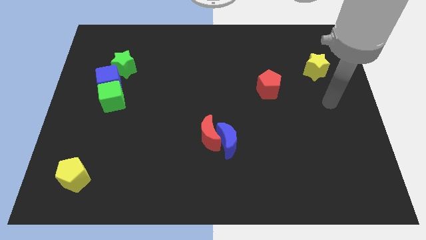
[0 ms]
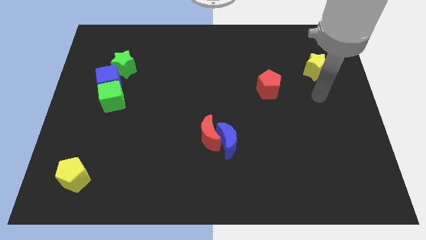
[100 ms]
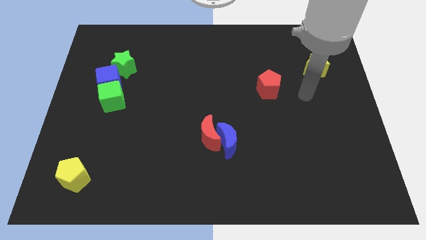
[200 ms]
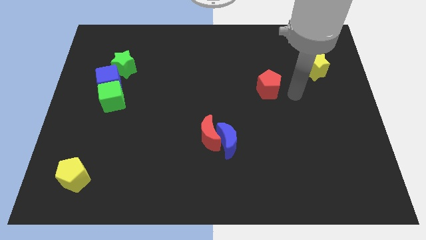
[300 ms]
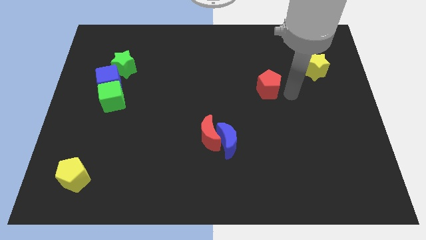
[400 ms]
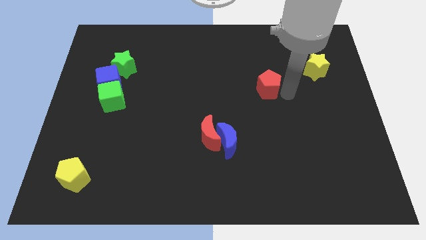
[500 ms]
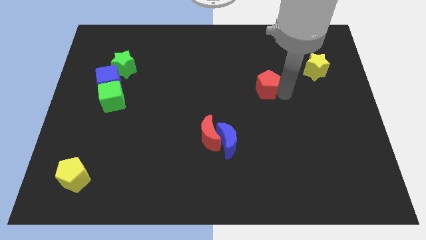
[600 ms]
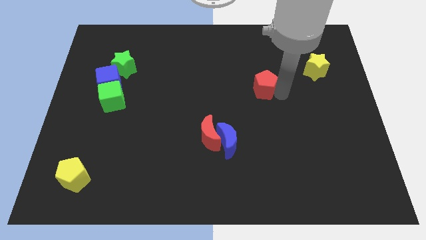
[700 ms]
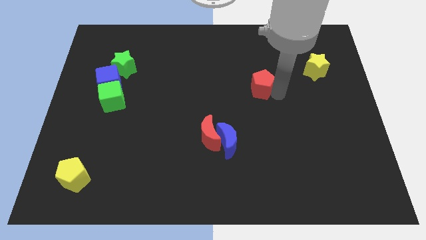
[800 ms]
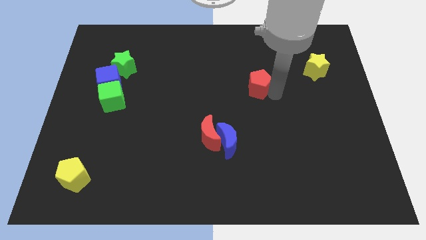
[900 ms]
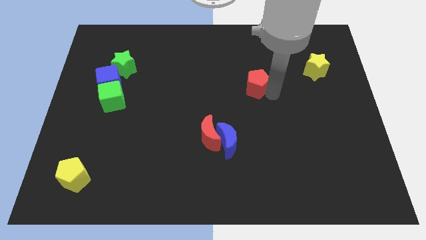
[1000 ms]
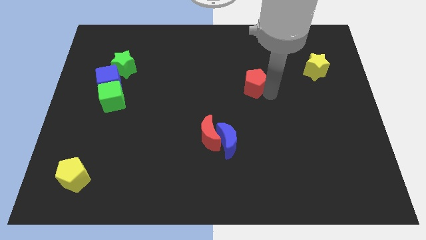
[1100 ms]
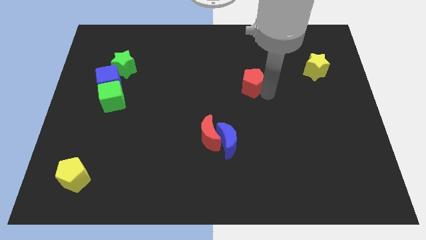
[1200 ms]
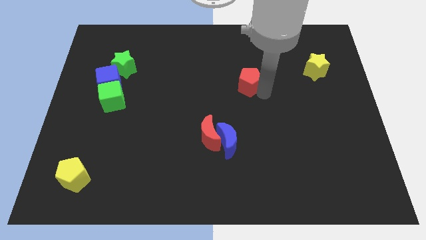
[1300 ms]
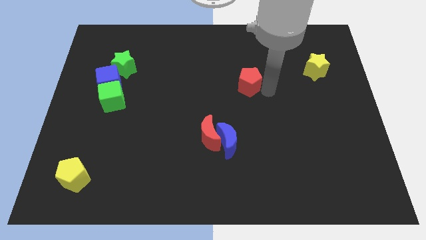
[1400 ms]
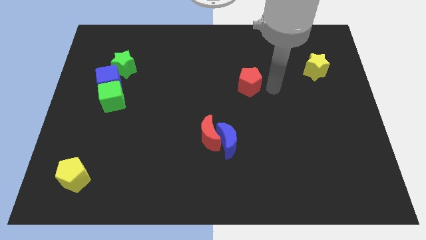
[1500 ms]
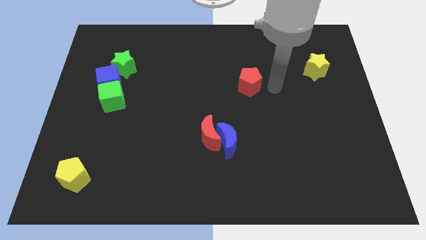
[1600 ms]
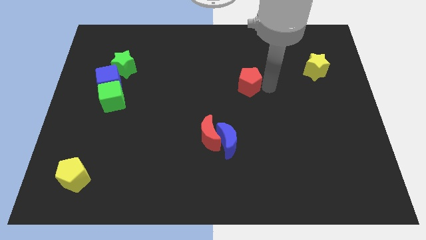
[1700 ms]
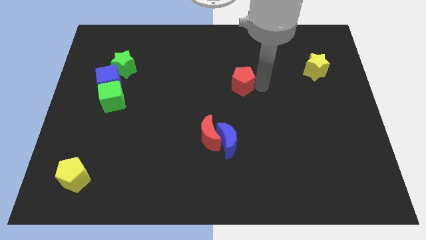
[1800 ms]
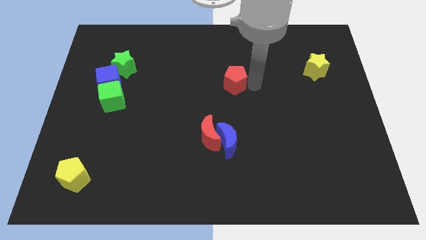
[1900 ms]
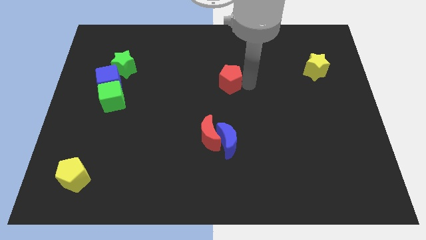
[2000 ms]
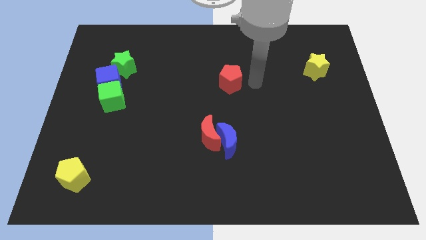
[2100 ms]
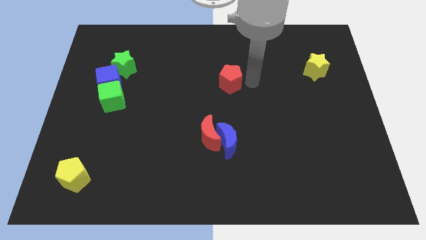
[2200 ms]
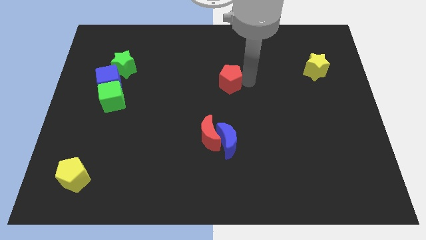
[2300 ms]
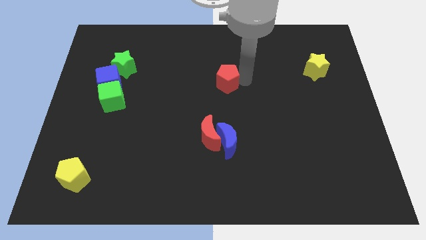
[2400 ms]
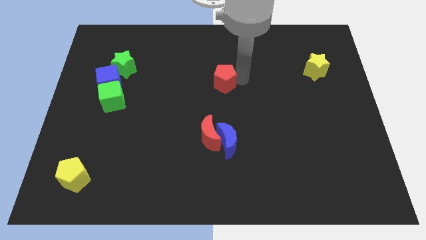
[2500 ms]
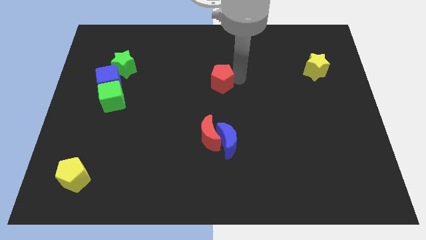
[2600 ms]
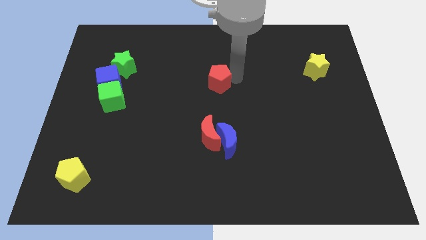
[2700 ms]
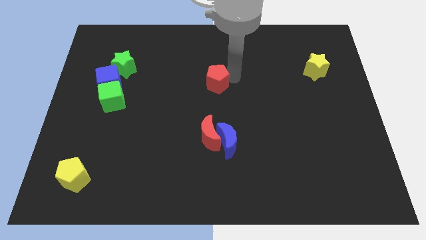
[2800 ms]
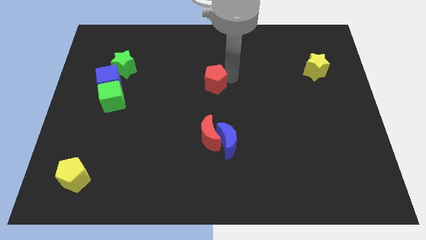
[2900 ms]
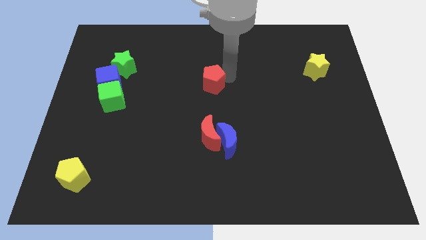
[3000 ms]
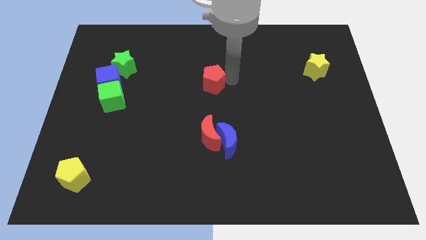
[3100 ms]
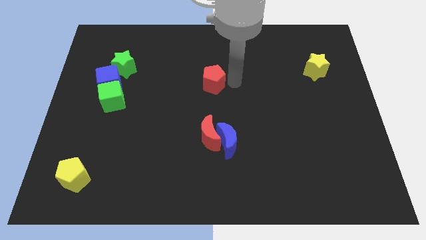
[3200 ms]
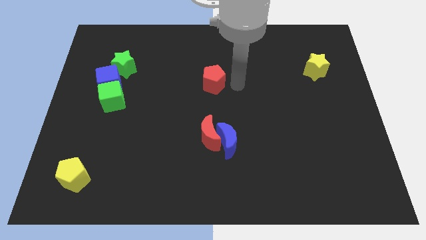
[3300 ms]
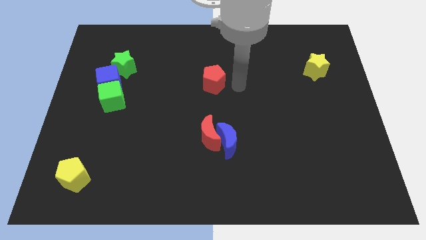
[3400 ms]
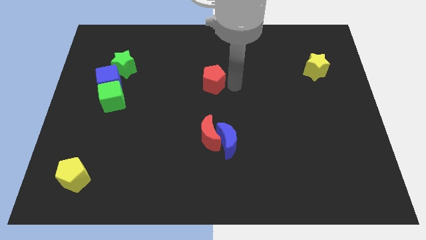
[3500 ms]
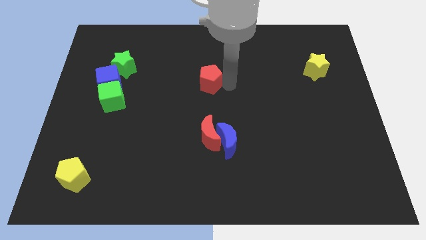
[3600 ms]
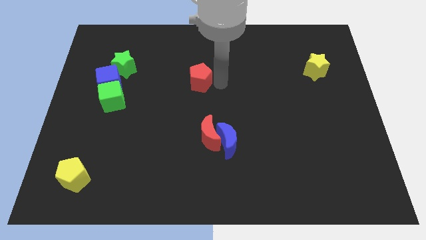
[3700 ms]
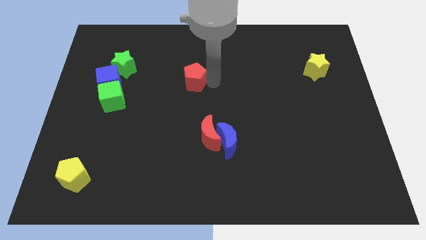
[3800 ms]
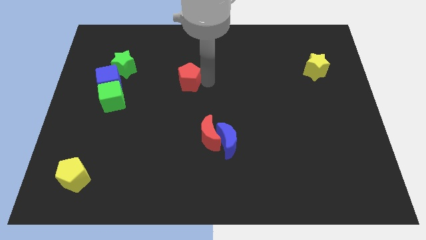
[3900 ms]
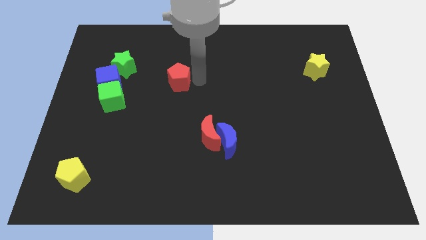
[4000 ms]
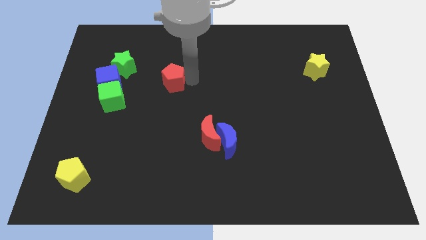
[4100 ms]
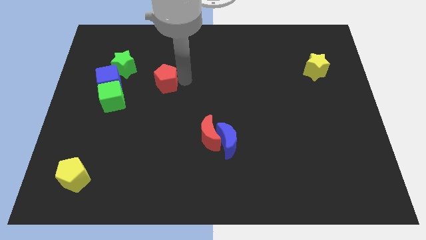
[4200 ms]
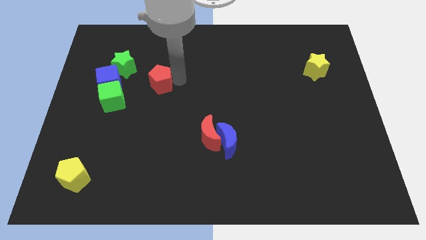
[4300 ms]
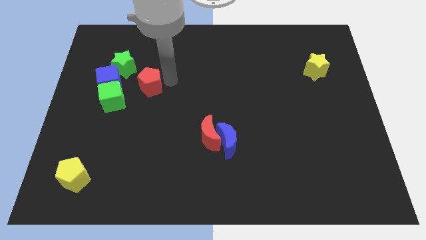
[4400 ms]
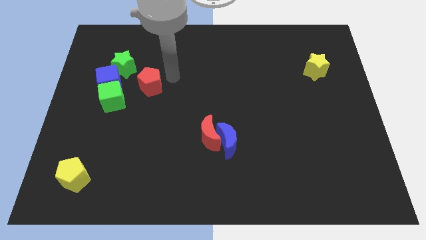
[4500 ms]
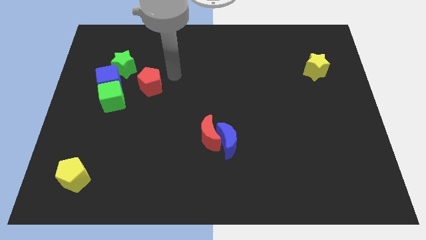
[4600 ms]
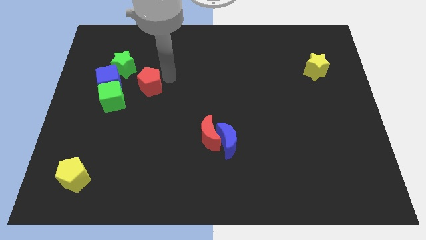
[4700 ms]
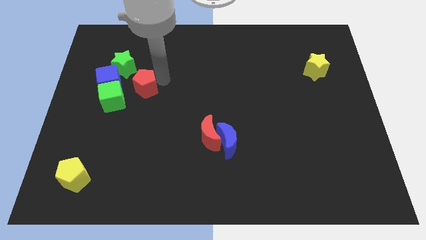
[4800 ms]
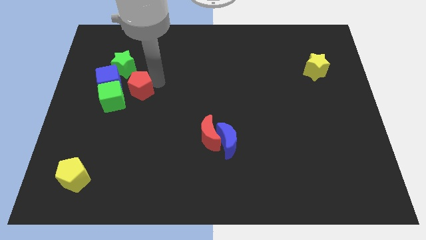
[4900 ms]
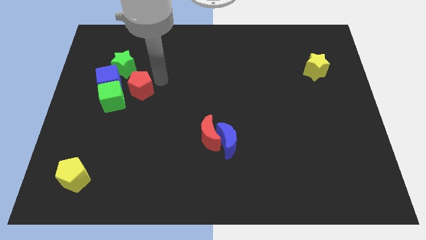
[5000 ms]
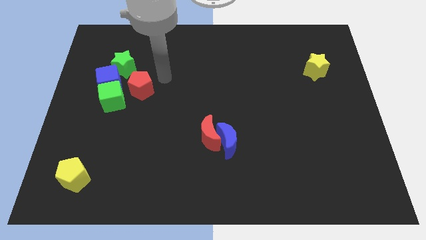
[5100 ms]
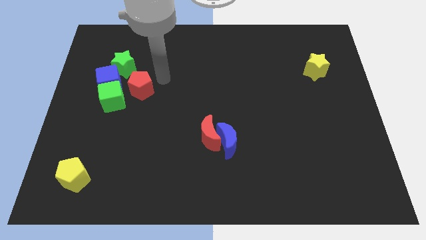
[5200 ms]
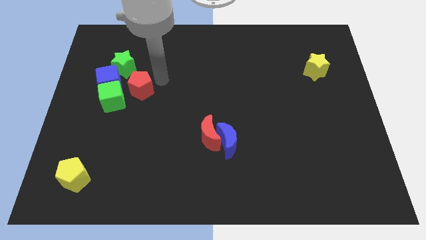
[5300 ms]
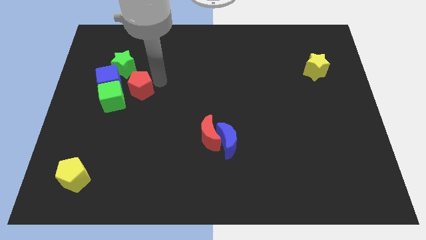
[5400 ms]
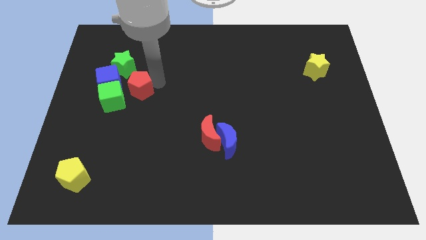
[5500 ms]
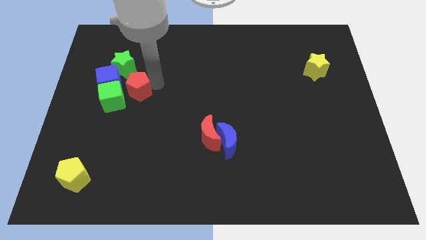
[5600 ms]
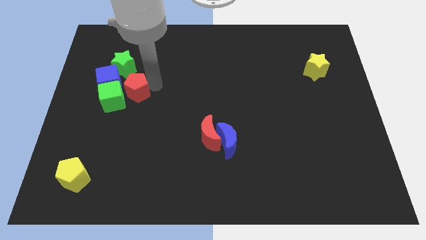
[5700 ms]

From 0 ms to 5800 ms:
slide the red pentagon towards the green cube

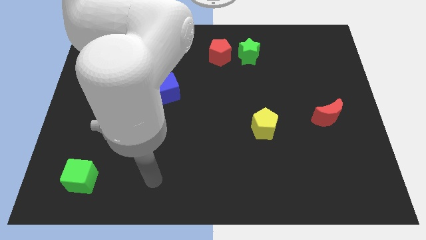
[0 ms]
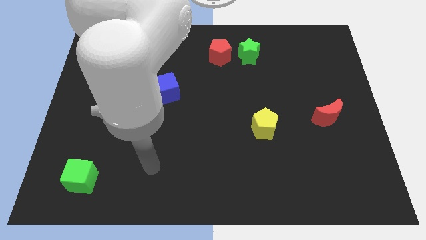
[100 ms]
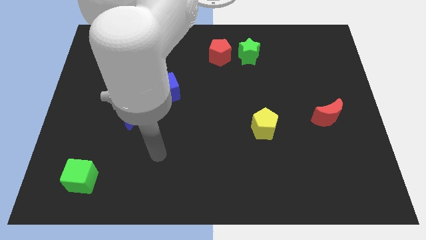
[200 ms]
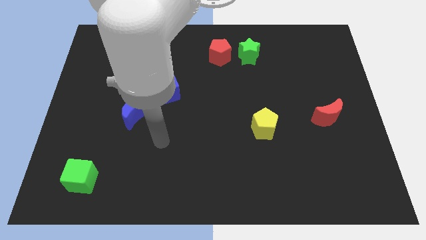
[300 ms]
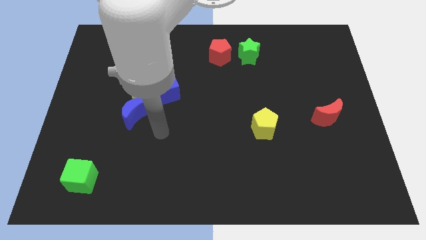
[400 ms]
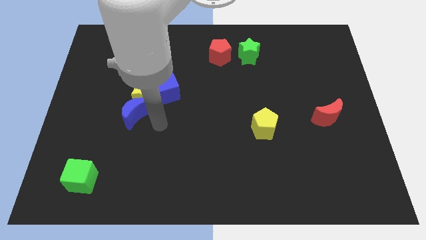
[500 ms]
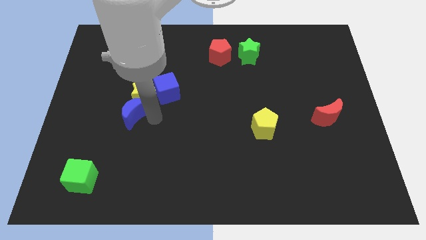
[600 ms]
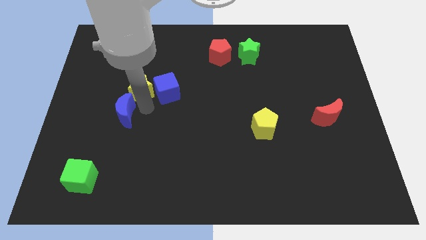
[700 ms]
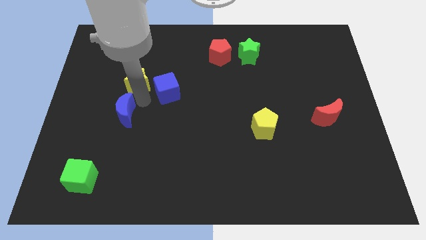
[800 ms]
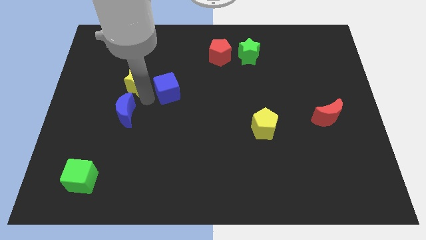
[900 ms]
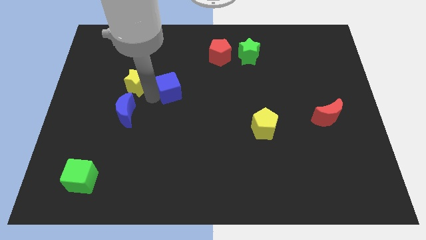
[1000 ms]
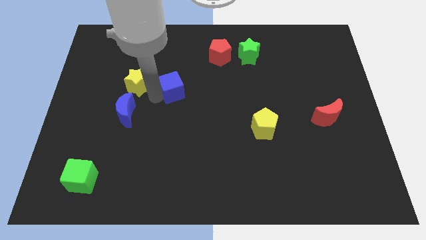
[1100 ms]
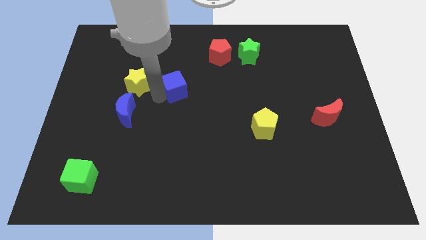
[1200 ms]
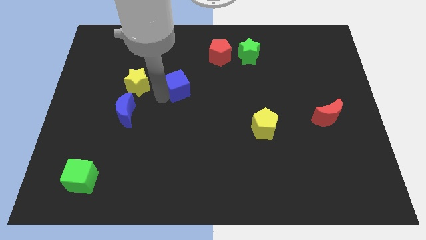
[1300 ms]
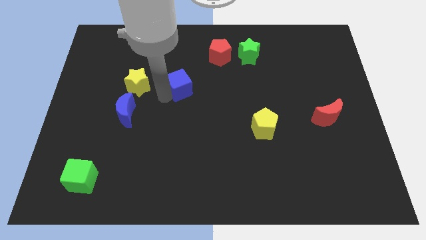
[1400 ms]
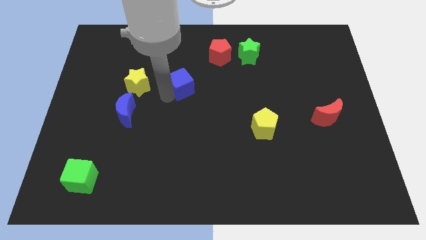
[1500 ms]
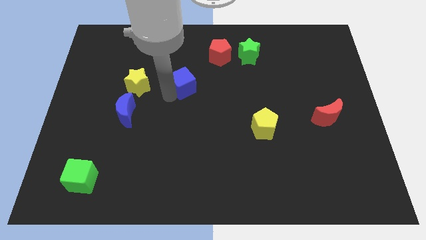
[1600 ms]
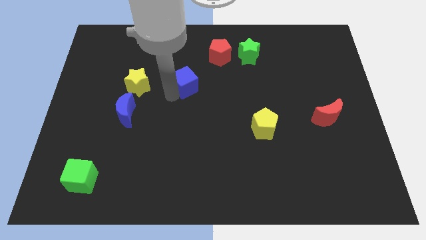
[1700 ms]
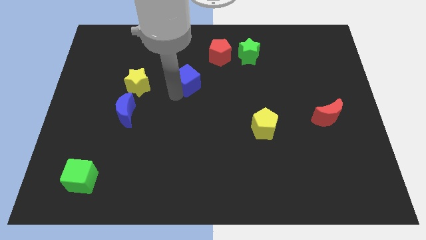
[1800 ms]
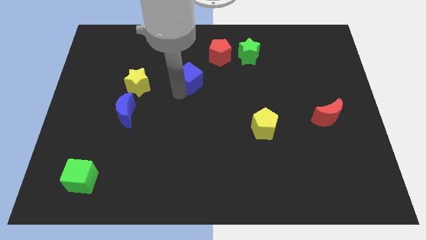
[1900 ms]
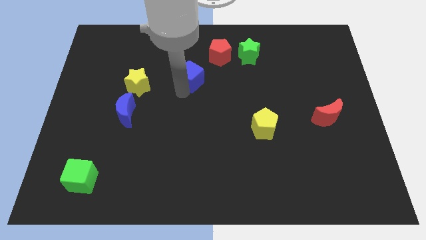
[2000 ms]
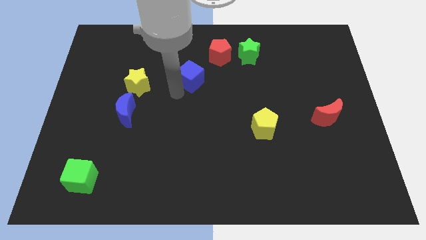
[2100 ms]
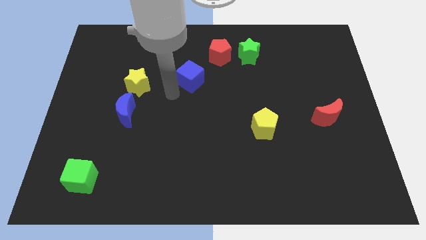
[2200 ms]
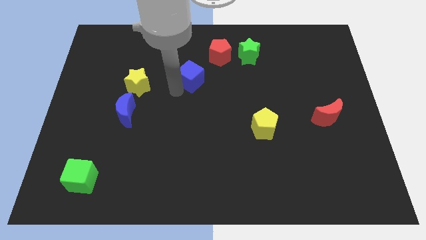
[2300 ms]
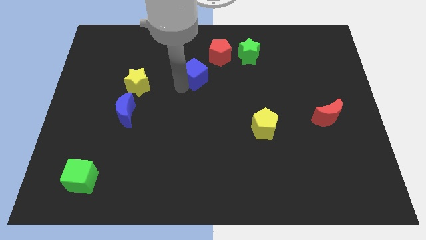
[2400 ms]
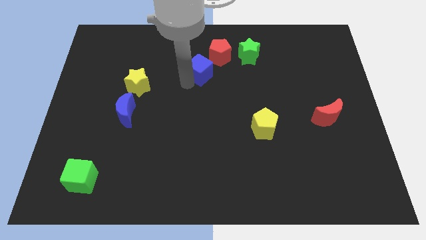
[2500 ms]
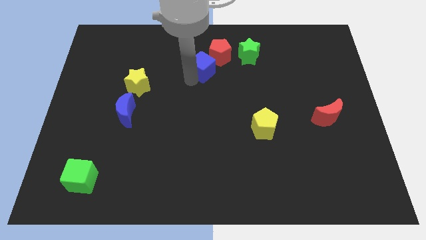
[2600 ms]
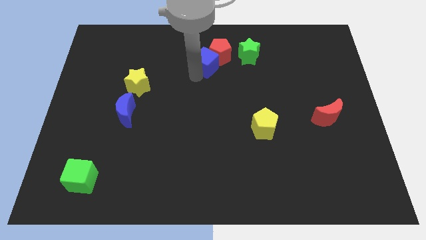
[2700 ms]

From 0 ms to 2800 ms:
slide the blue cube close to the red pentagon
